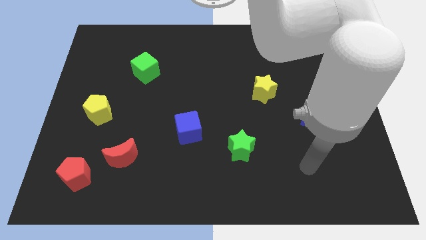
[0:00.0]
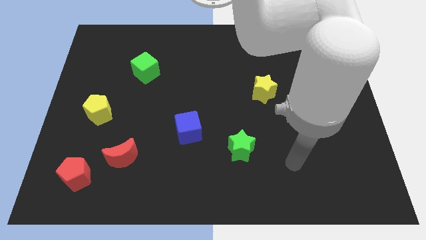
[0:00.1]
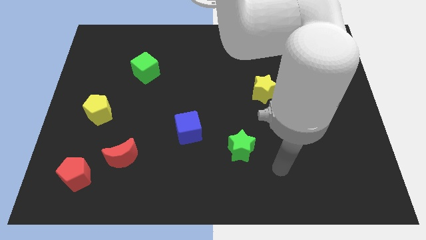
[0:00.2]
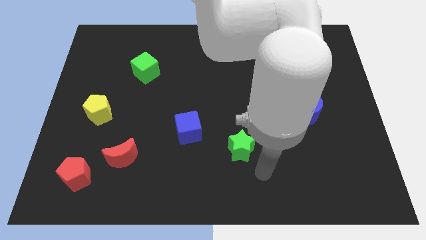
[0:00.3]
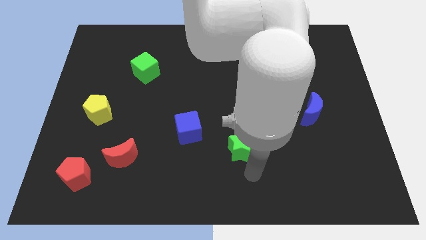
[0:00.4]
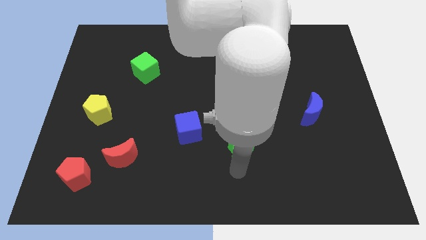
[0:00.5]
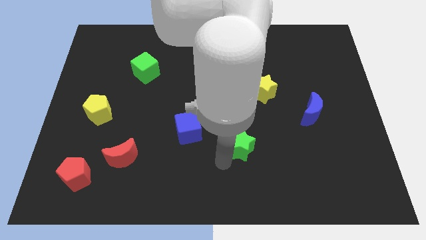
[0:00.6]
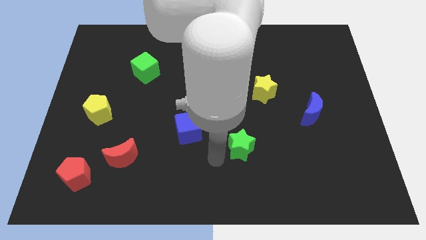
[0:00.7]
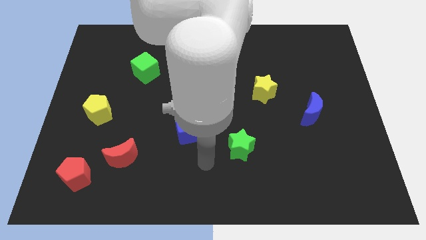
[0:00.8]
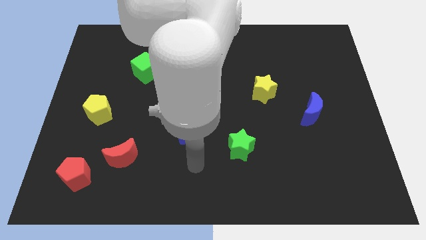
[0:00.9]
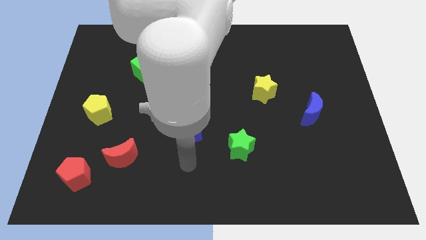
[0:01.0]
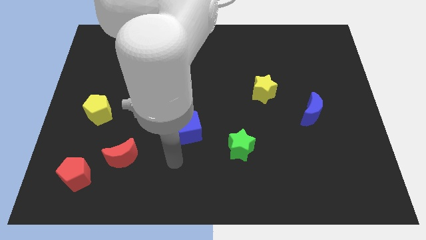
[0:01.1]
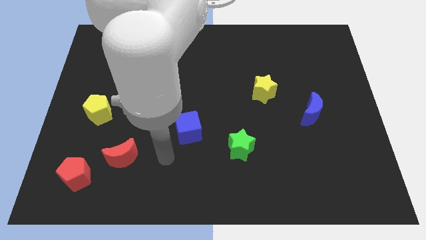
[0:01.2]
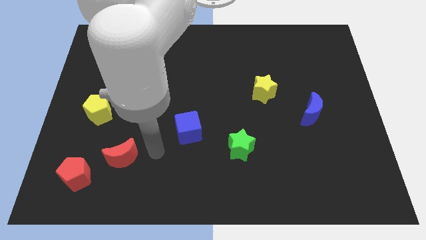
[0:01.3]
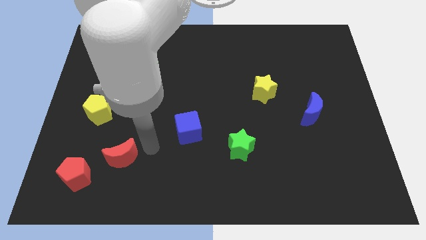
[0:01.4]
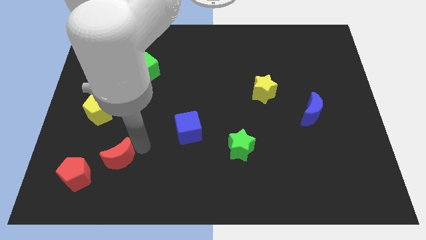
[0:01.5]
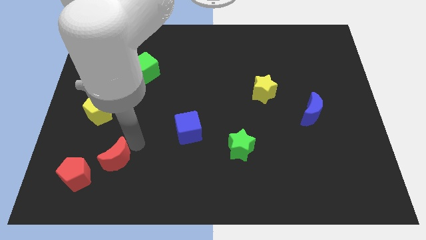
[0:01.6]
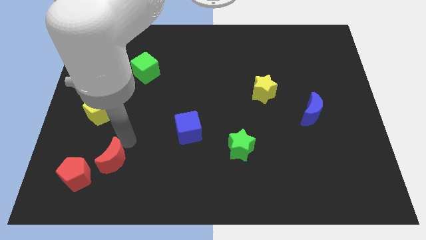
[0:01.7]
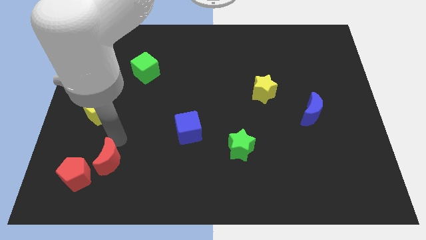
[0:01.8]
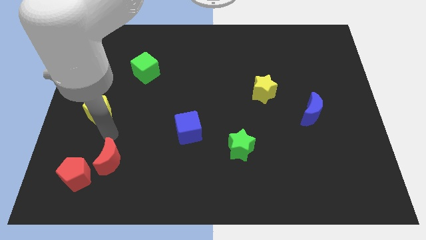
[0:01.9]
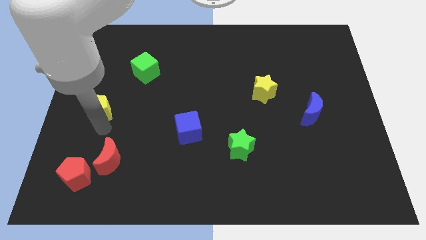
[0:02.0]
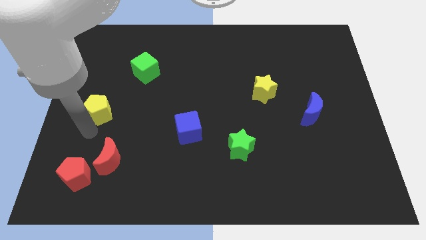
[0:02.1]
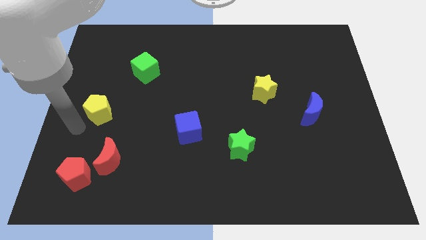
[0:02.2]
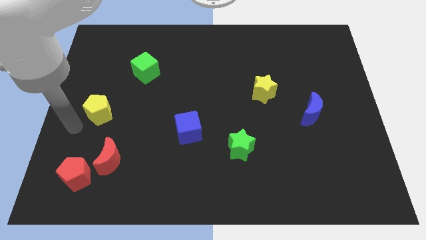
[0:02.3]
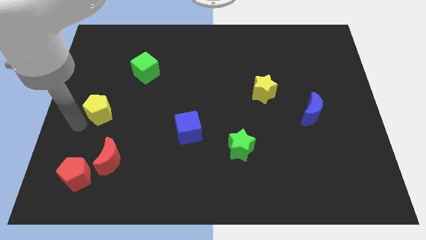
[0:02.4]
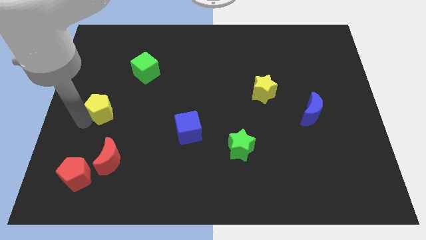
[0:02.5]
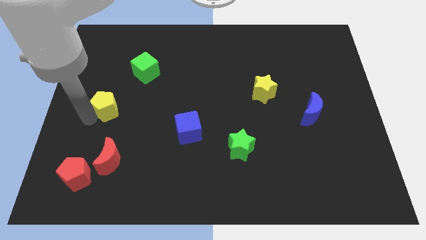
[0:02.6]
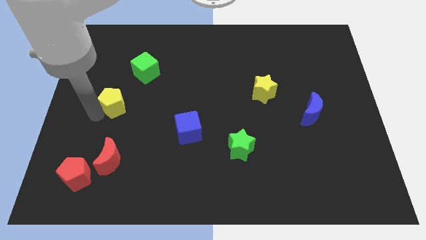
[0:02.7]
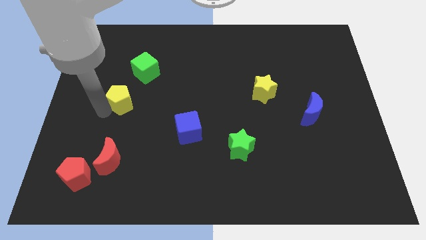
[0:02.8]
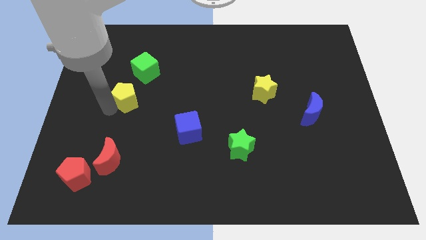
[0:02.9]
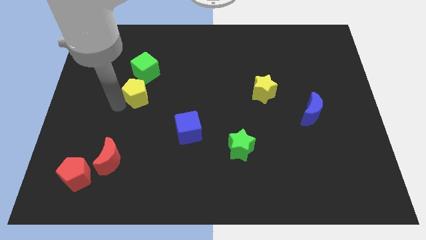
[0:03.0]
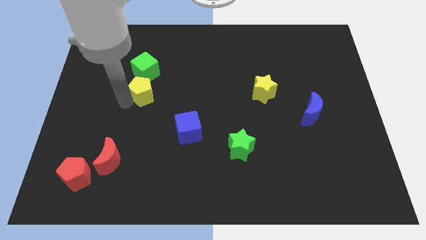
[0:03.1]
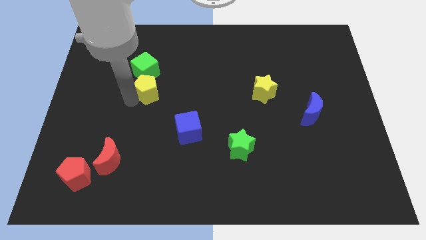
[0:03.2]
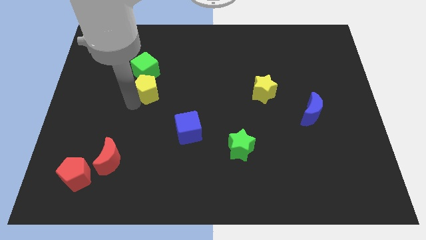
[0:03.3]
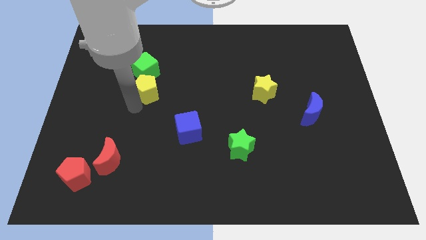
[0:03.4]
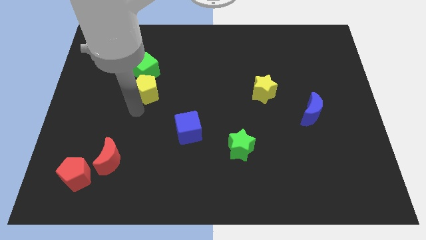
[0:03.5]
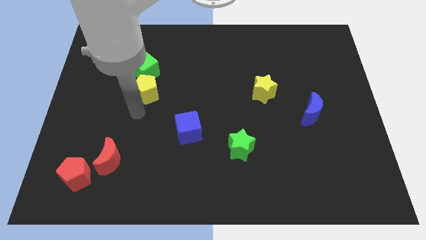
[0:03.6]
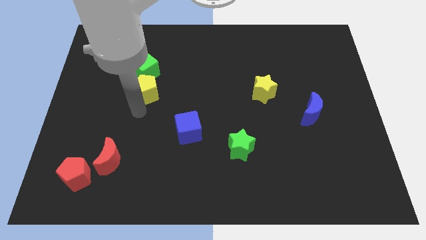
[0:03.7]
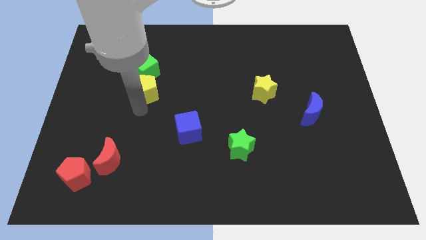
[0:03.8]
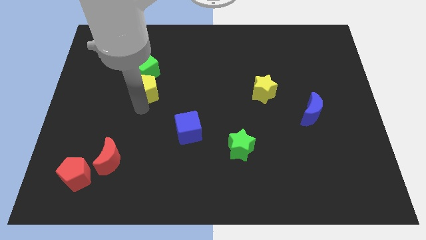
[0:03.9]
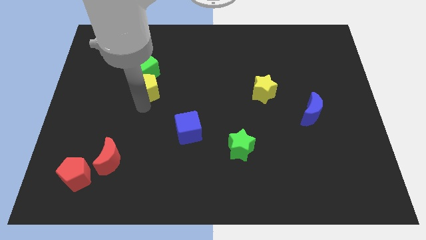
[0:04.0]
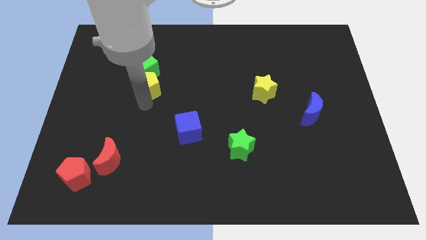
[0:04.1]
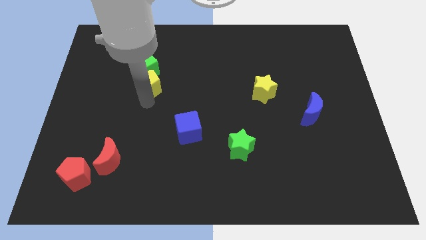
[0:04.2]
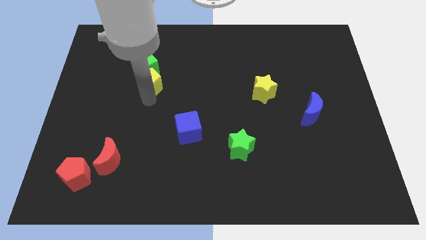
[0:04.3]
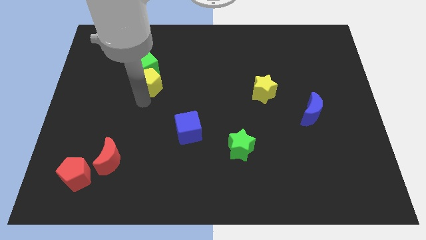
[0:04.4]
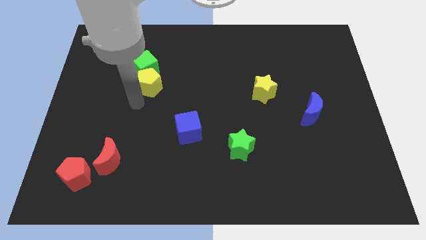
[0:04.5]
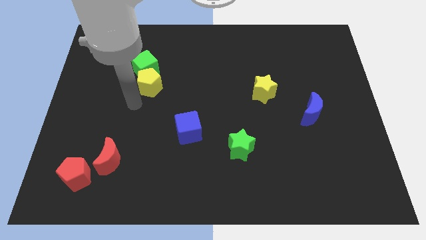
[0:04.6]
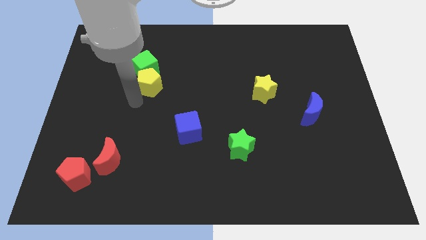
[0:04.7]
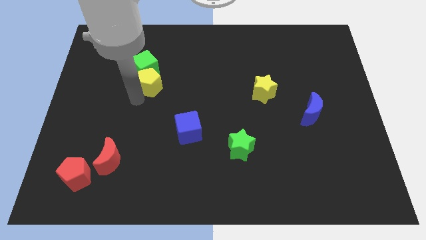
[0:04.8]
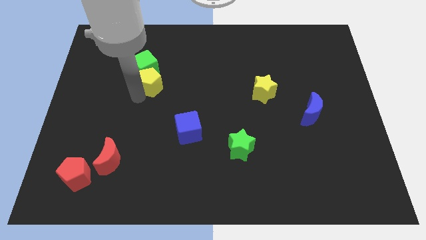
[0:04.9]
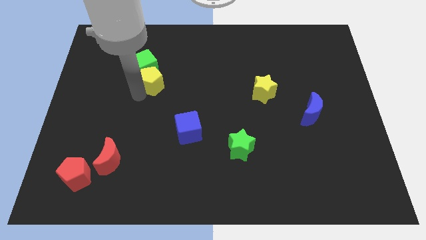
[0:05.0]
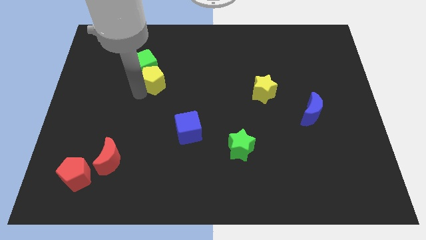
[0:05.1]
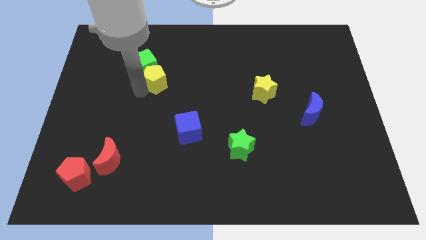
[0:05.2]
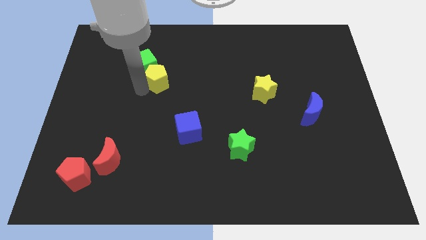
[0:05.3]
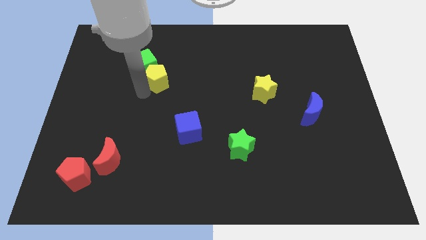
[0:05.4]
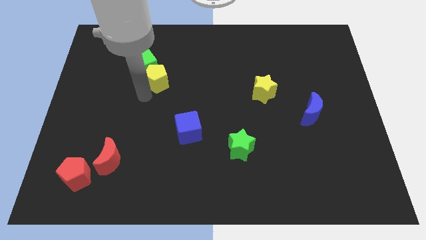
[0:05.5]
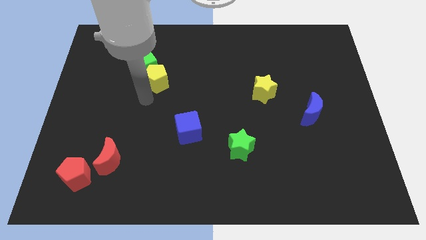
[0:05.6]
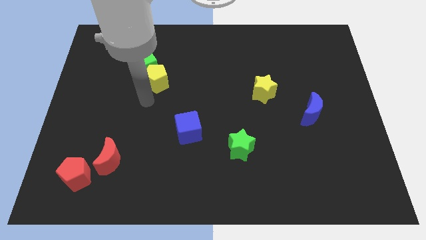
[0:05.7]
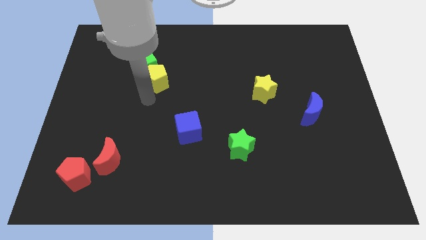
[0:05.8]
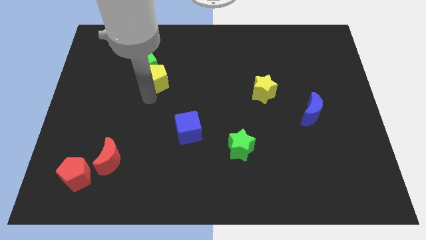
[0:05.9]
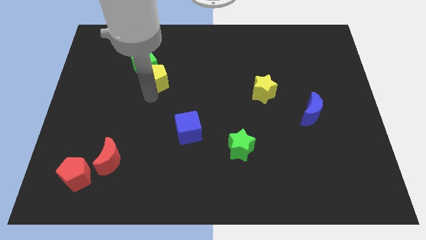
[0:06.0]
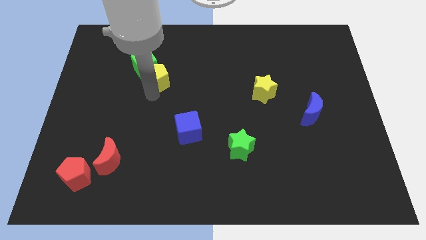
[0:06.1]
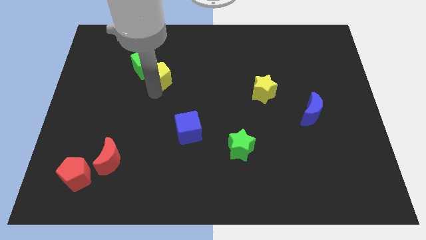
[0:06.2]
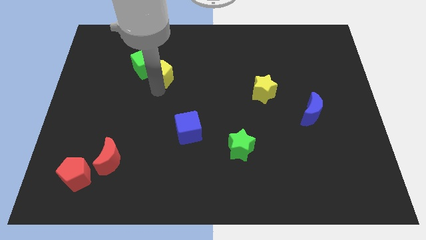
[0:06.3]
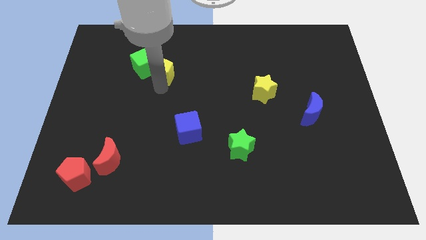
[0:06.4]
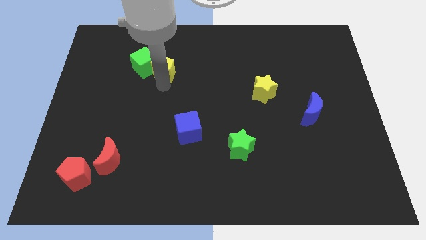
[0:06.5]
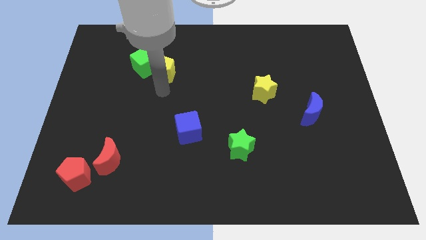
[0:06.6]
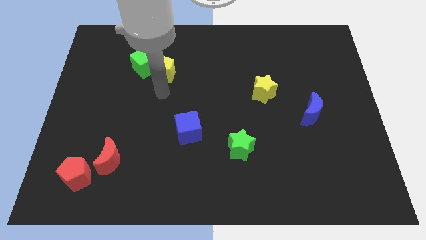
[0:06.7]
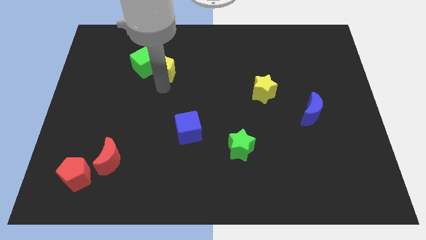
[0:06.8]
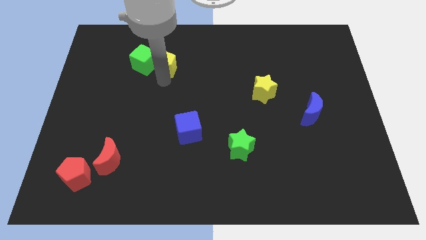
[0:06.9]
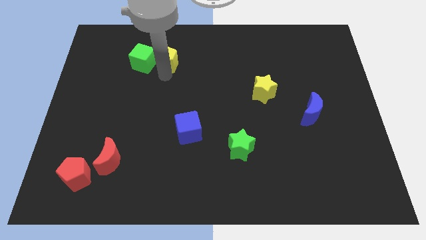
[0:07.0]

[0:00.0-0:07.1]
slide the yellow pentagon diagonally up and to the right of the green cube
